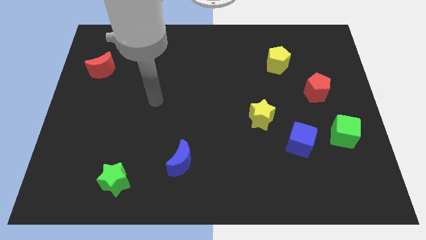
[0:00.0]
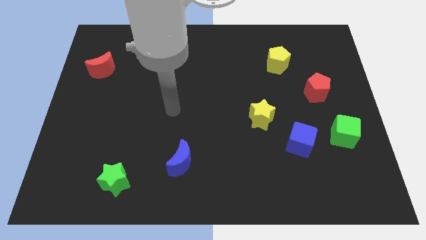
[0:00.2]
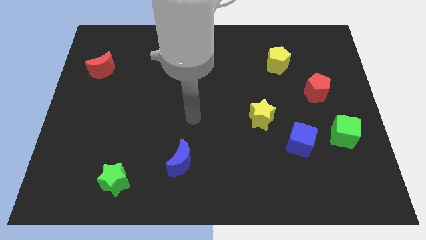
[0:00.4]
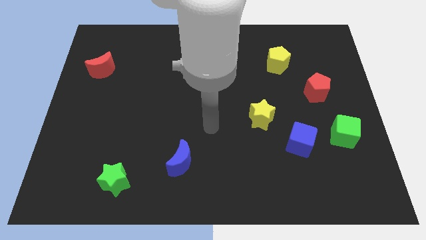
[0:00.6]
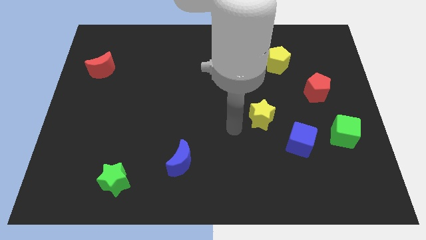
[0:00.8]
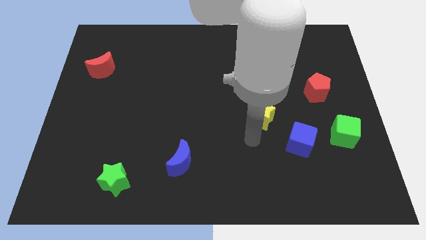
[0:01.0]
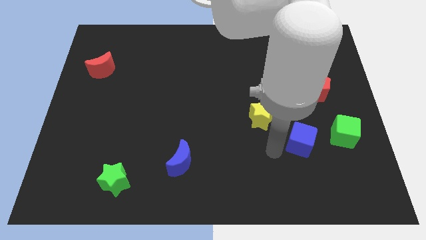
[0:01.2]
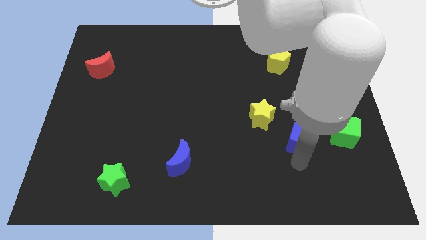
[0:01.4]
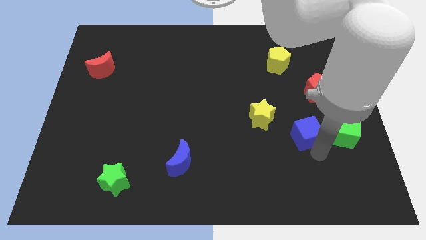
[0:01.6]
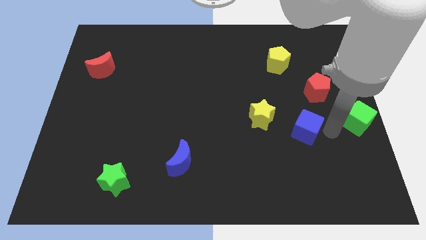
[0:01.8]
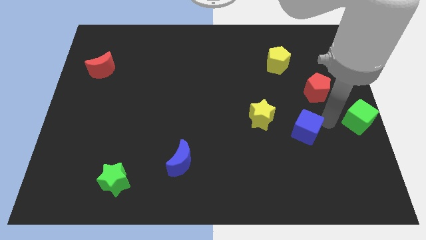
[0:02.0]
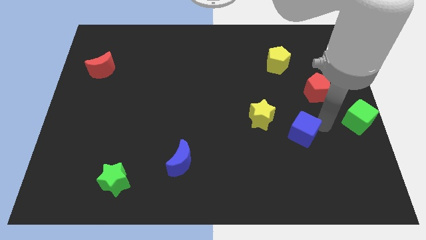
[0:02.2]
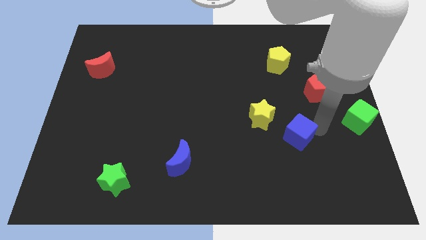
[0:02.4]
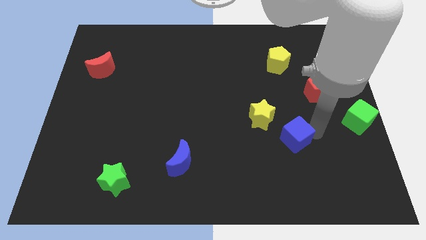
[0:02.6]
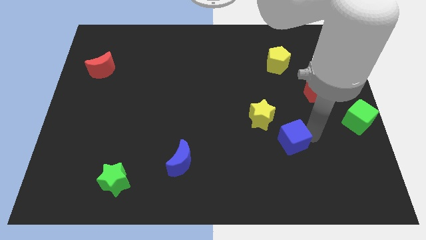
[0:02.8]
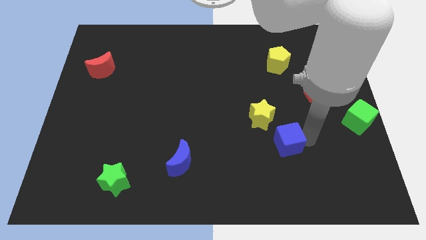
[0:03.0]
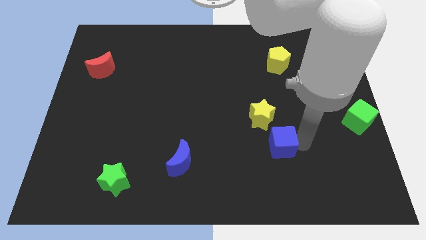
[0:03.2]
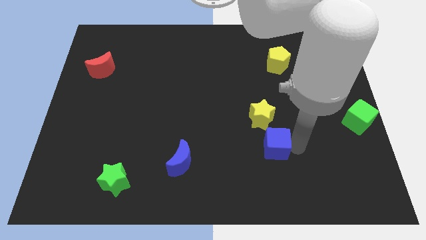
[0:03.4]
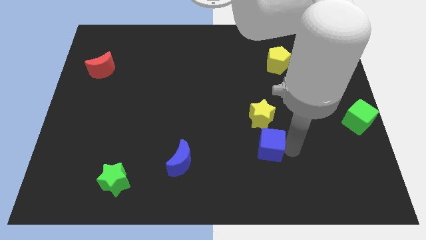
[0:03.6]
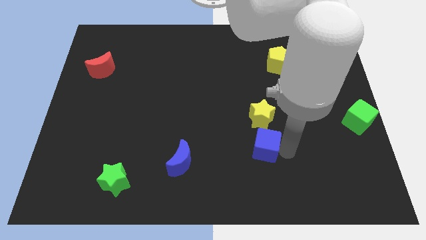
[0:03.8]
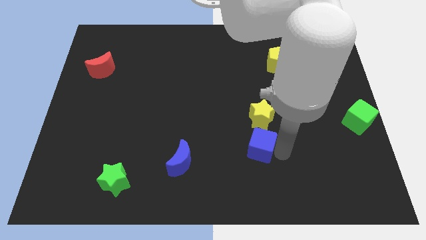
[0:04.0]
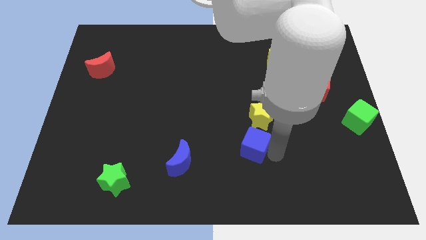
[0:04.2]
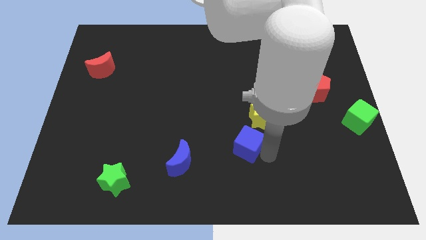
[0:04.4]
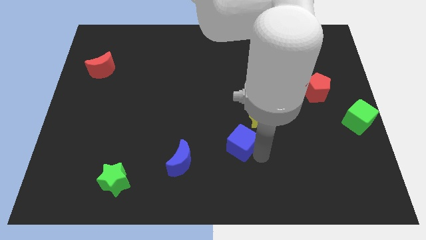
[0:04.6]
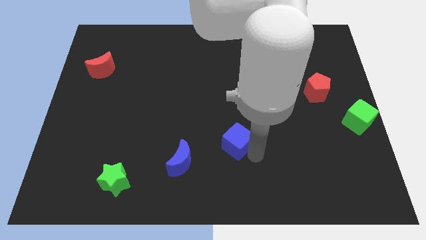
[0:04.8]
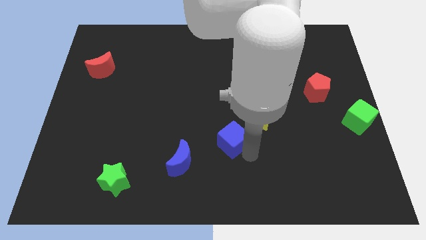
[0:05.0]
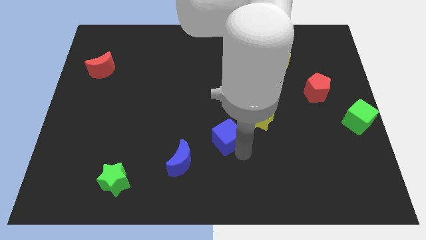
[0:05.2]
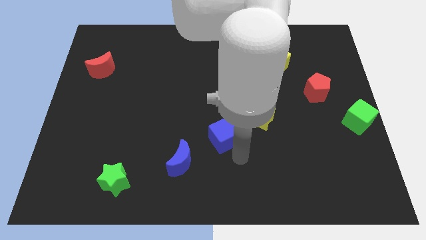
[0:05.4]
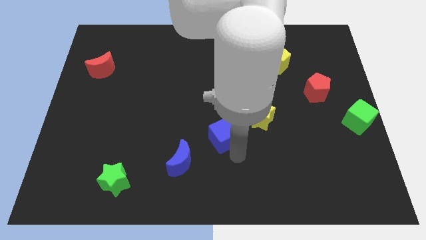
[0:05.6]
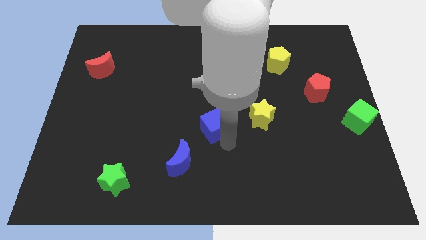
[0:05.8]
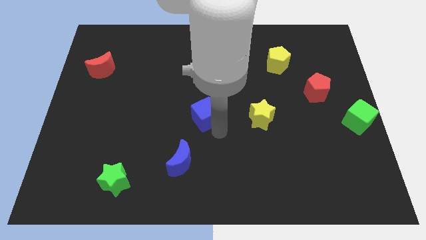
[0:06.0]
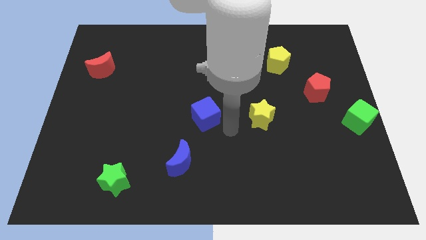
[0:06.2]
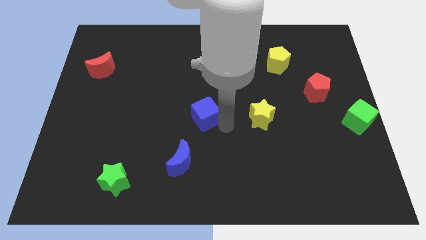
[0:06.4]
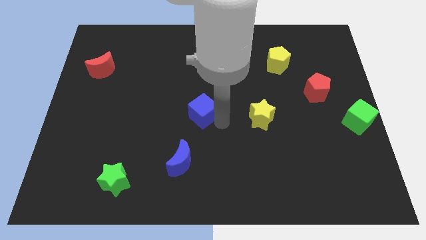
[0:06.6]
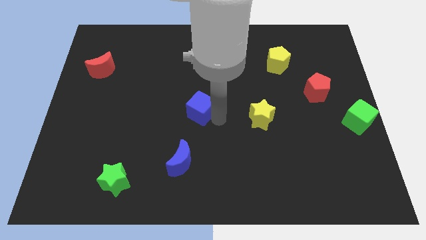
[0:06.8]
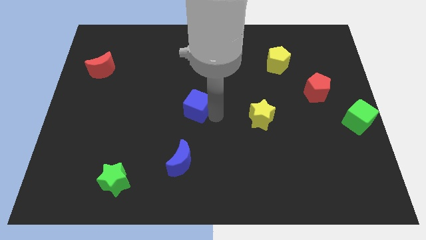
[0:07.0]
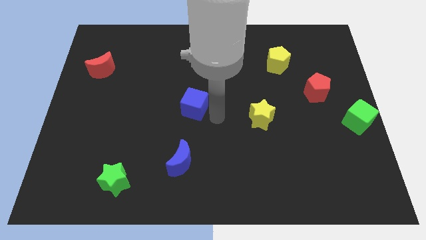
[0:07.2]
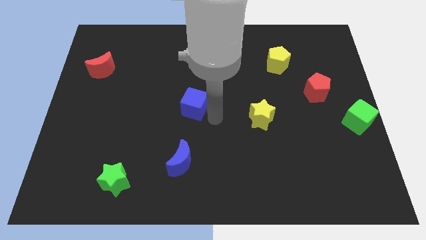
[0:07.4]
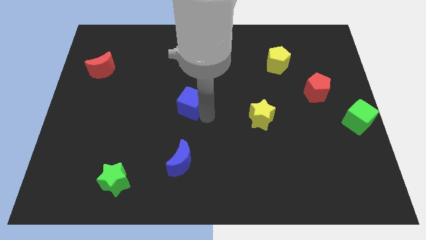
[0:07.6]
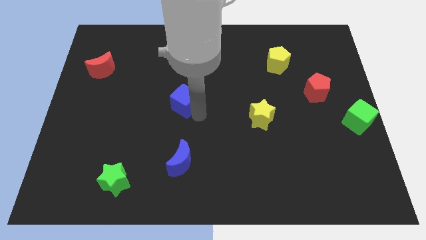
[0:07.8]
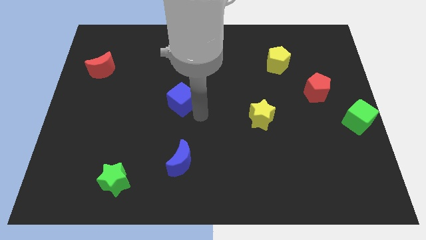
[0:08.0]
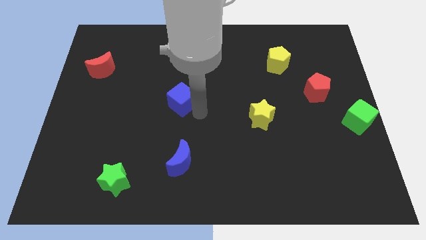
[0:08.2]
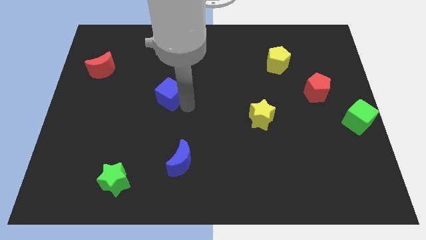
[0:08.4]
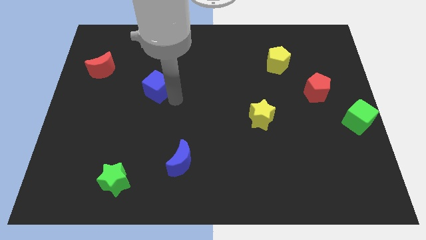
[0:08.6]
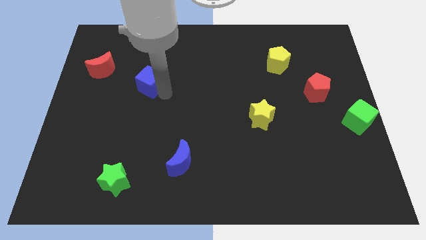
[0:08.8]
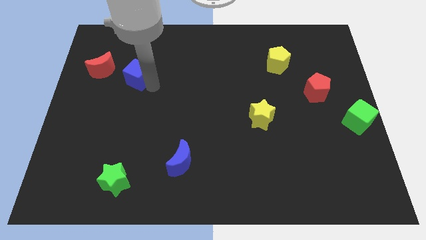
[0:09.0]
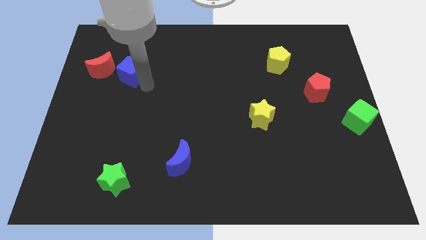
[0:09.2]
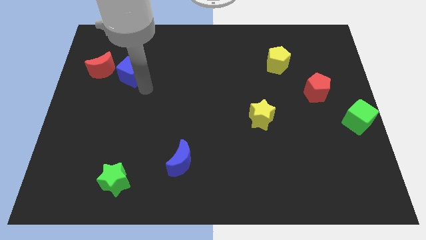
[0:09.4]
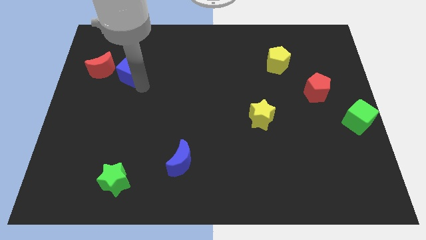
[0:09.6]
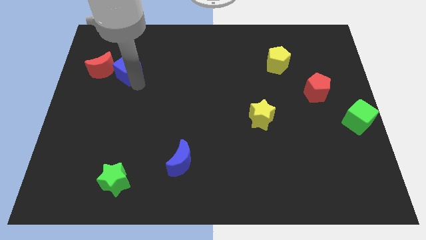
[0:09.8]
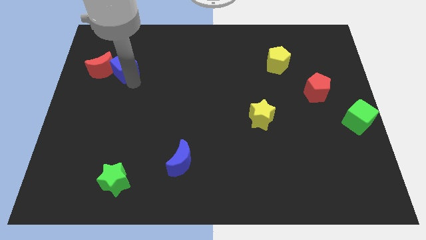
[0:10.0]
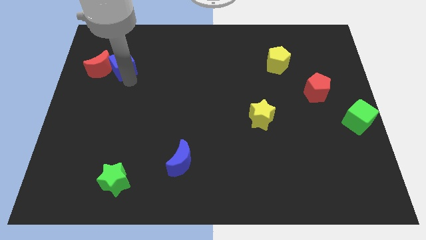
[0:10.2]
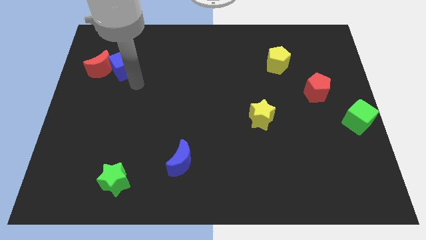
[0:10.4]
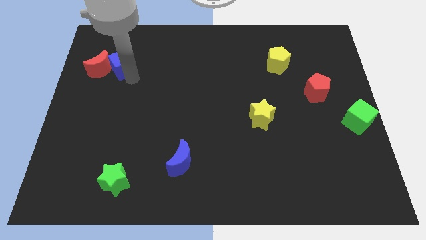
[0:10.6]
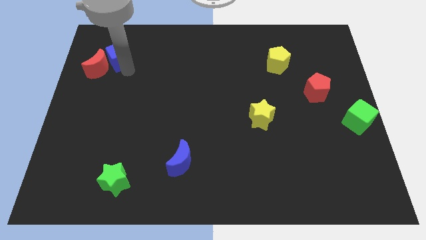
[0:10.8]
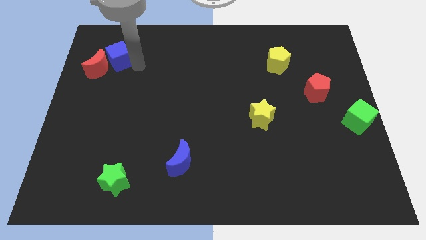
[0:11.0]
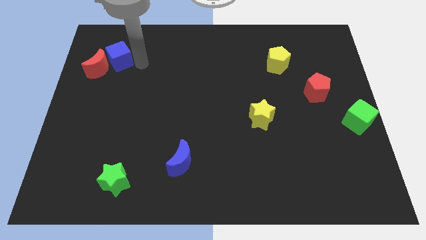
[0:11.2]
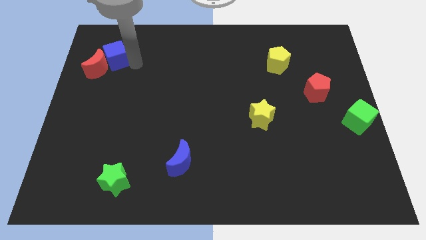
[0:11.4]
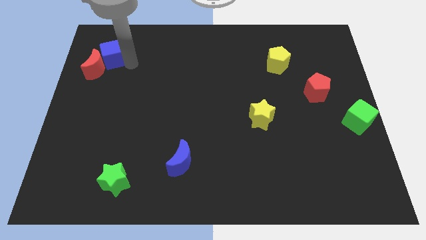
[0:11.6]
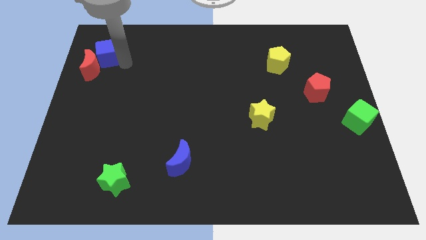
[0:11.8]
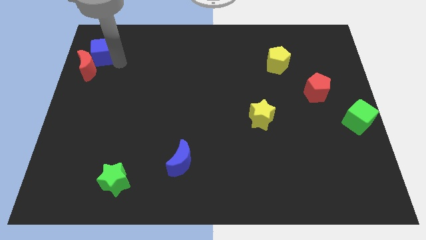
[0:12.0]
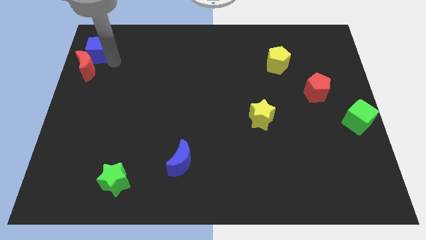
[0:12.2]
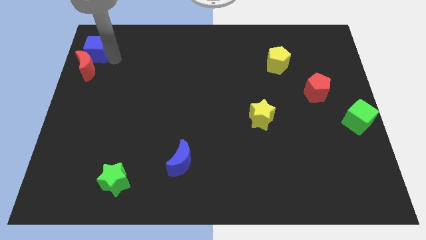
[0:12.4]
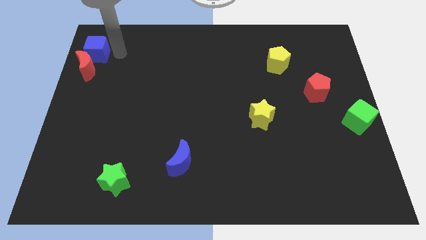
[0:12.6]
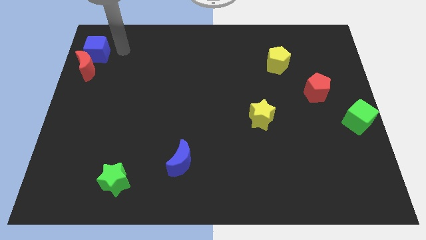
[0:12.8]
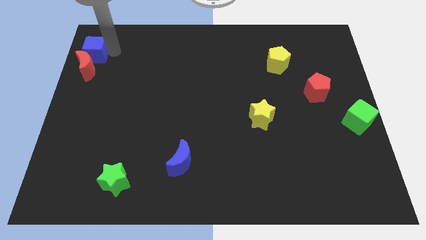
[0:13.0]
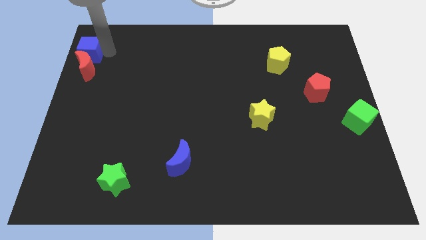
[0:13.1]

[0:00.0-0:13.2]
push the blue cube to the upper left corner

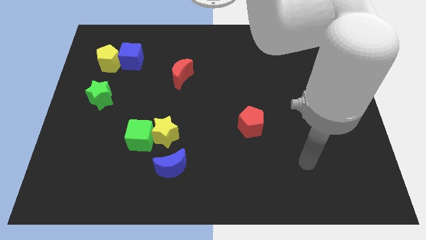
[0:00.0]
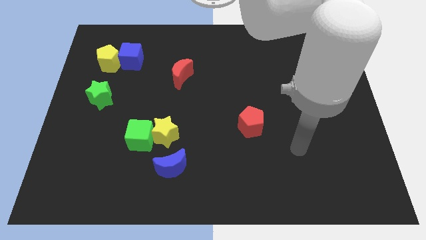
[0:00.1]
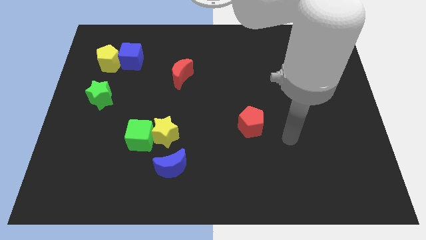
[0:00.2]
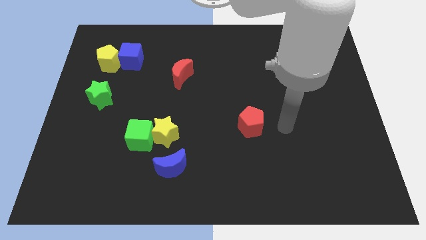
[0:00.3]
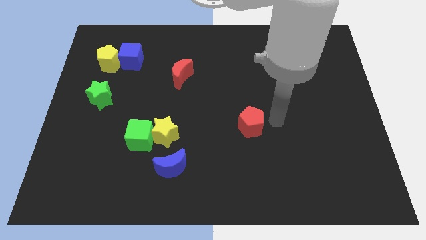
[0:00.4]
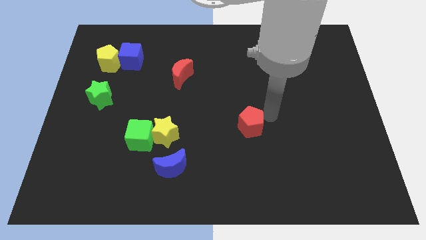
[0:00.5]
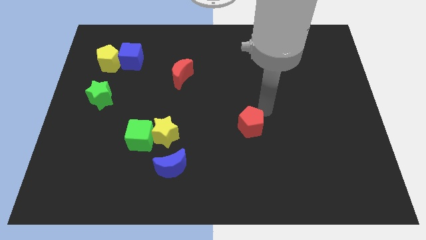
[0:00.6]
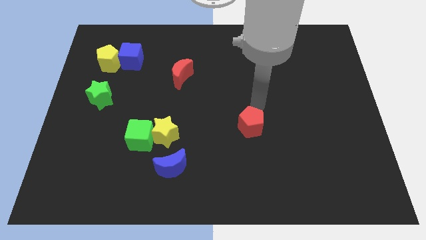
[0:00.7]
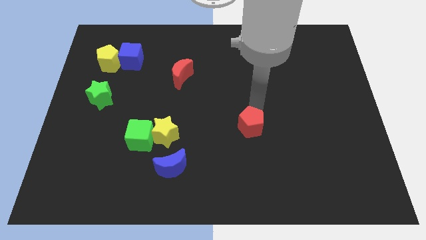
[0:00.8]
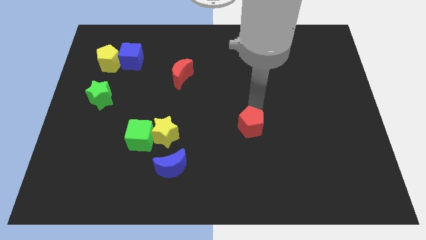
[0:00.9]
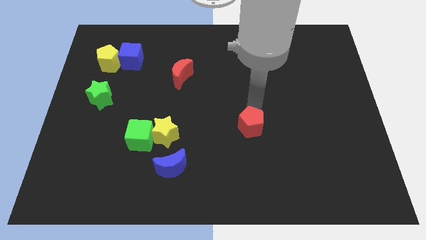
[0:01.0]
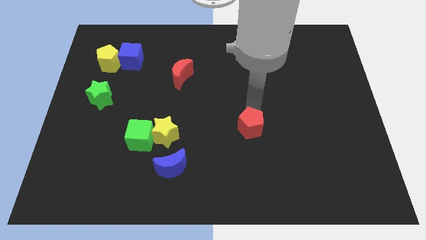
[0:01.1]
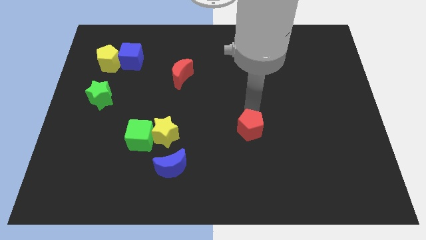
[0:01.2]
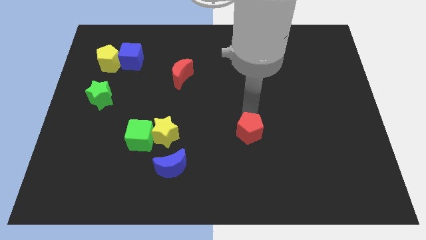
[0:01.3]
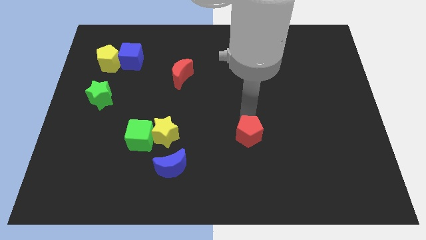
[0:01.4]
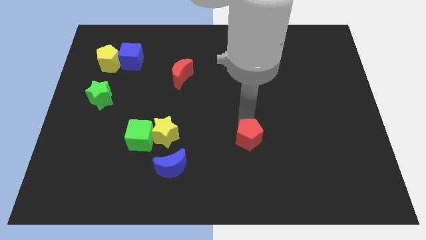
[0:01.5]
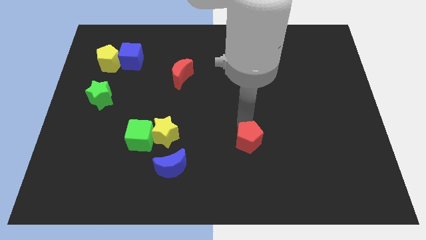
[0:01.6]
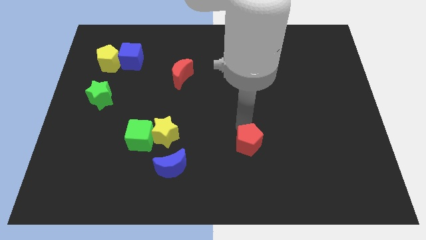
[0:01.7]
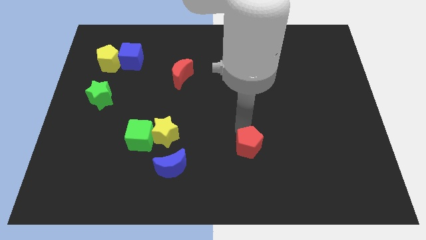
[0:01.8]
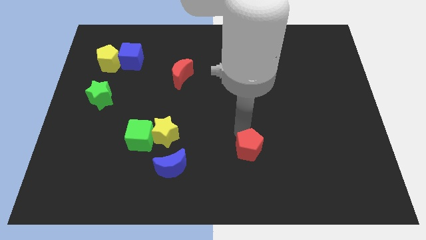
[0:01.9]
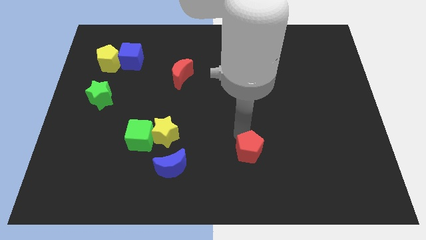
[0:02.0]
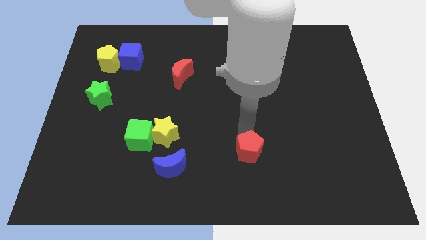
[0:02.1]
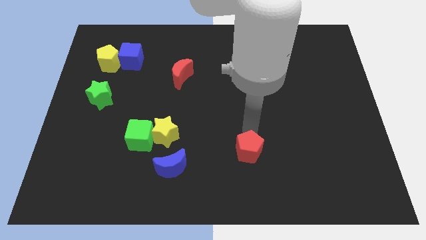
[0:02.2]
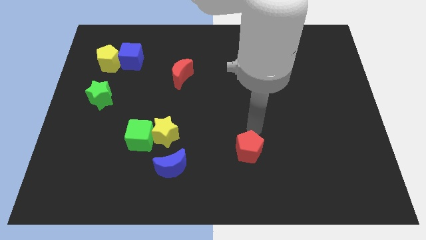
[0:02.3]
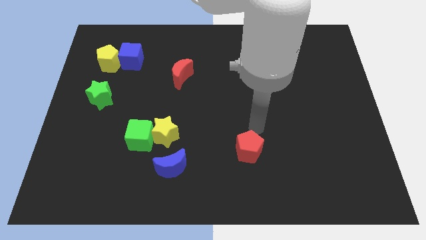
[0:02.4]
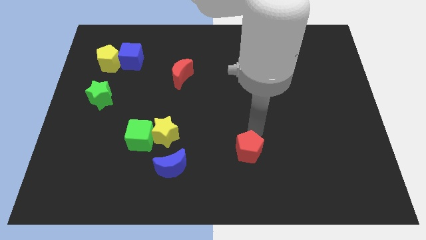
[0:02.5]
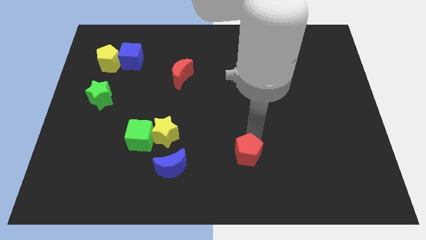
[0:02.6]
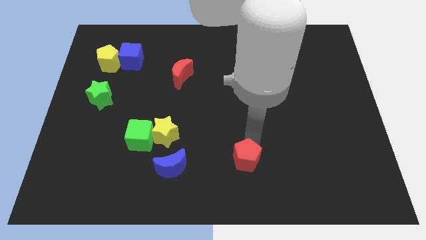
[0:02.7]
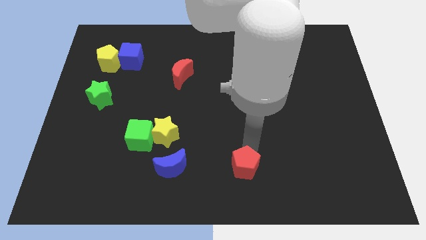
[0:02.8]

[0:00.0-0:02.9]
put the red pentagon to the bottom
